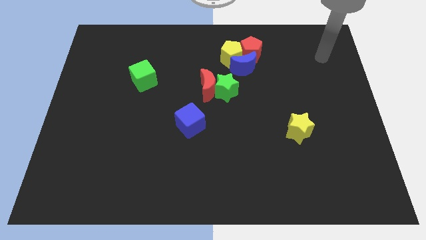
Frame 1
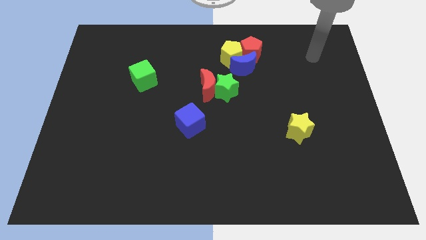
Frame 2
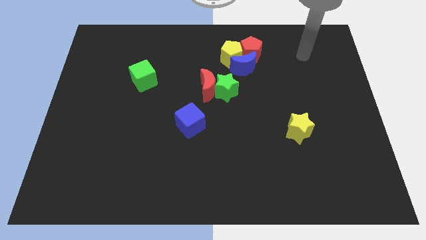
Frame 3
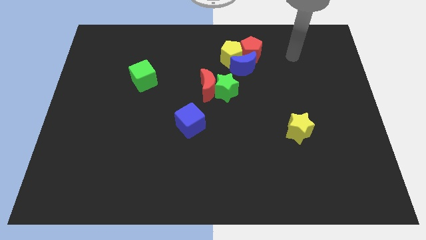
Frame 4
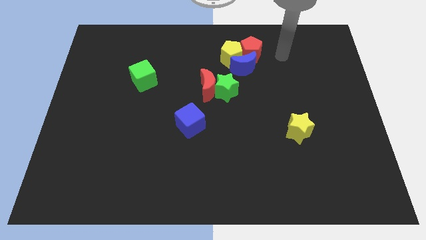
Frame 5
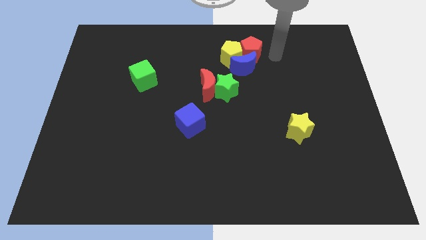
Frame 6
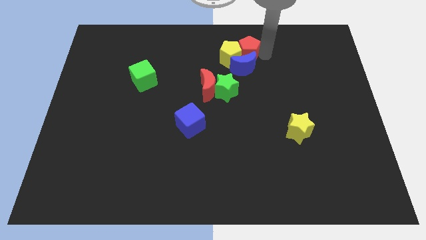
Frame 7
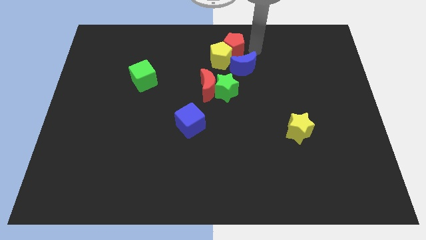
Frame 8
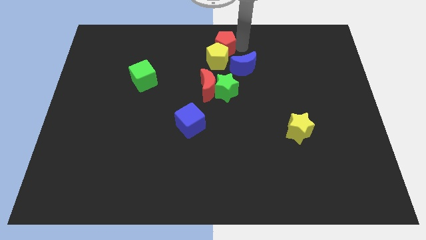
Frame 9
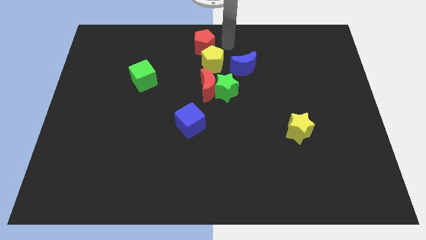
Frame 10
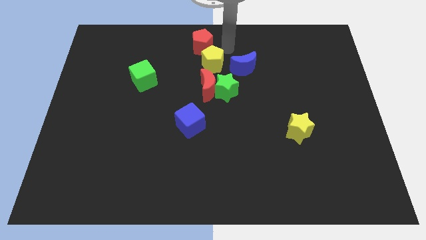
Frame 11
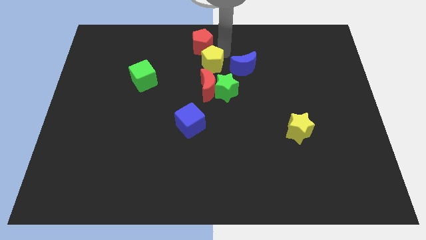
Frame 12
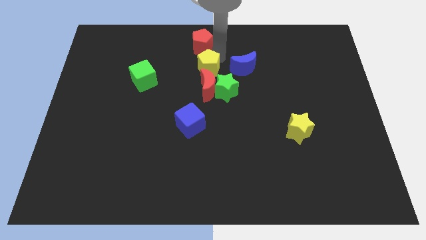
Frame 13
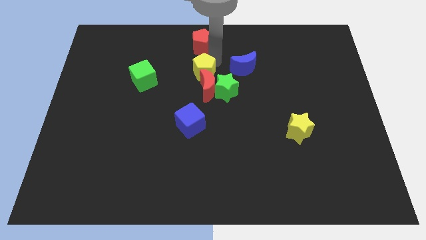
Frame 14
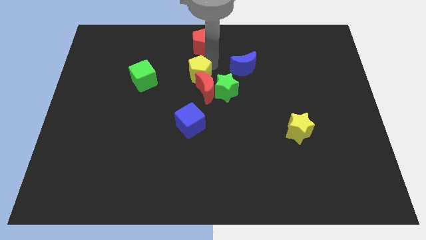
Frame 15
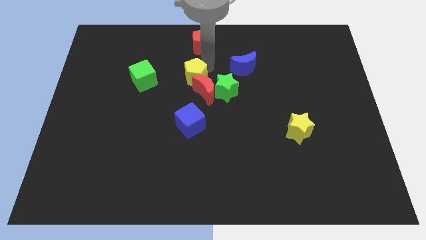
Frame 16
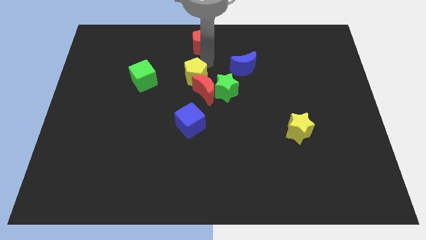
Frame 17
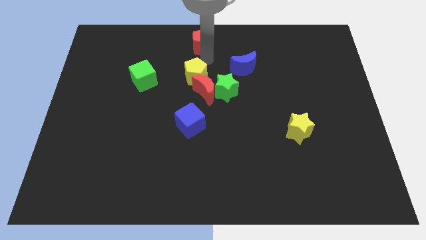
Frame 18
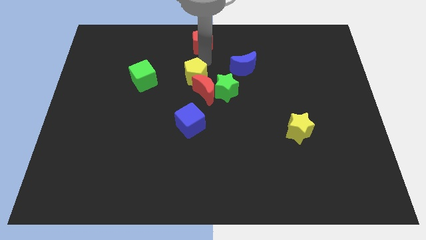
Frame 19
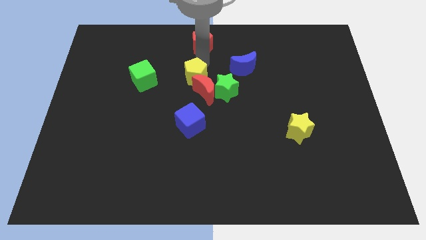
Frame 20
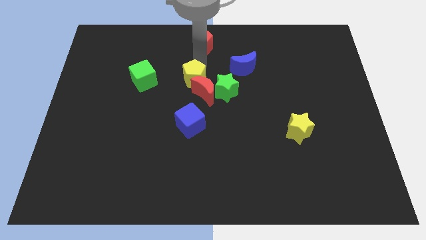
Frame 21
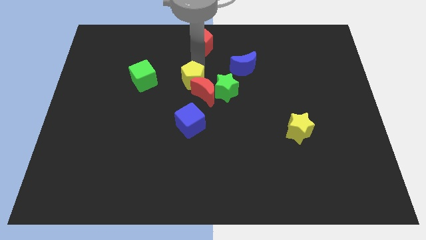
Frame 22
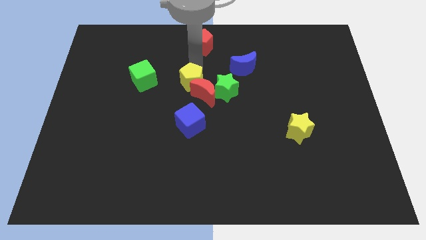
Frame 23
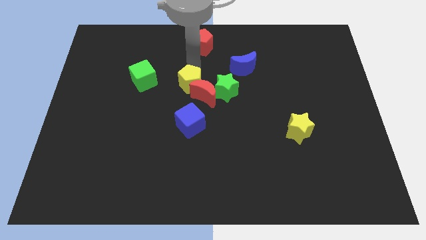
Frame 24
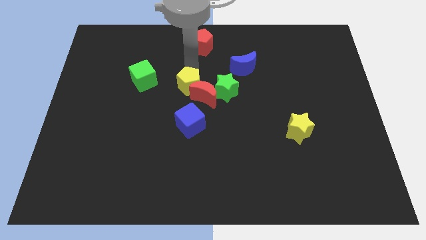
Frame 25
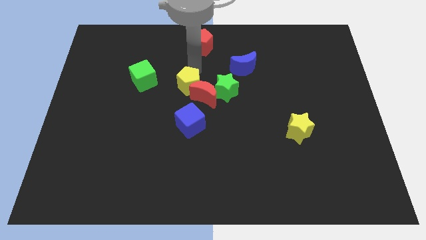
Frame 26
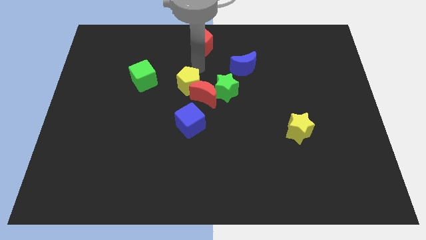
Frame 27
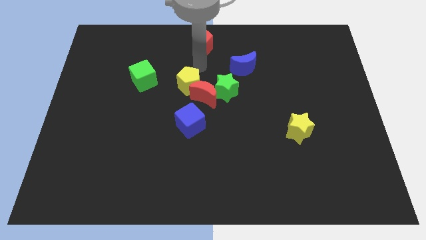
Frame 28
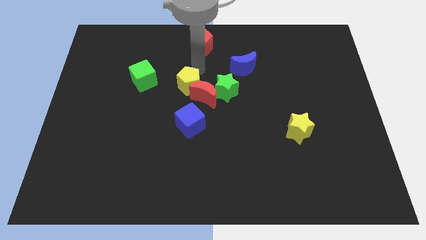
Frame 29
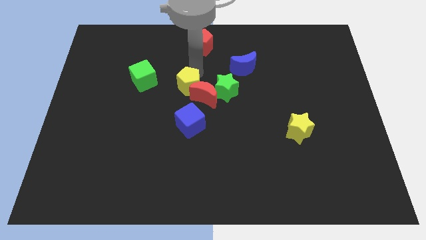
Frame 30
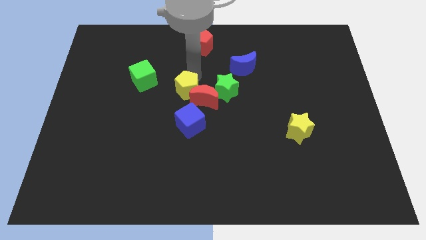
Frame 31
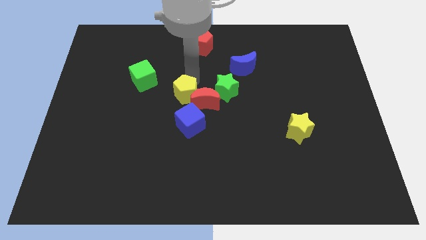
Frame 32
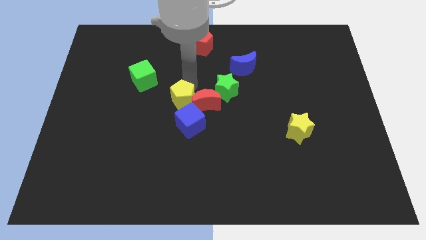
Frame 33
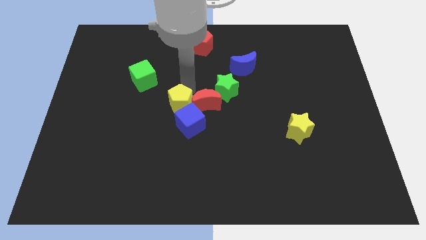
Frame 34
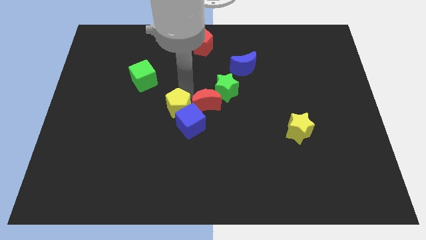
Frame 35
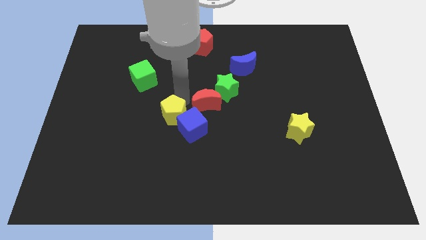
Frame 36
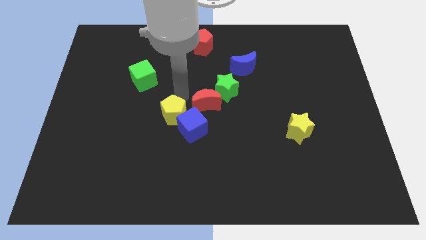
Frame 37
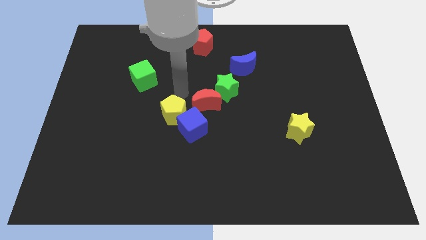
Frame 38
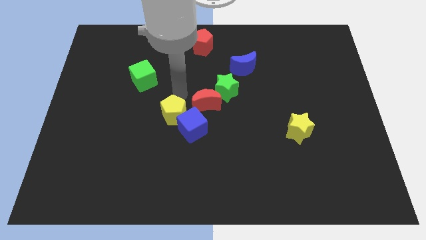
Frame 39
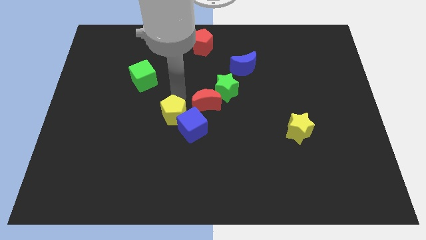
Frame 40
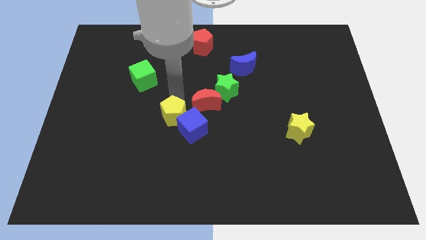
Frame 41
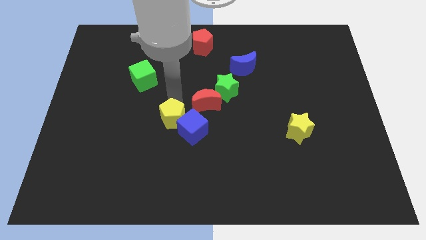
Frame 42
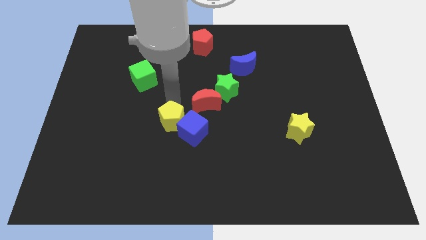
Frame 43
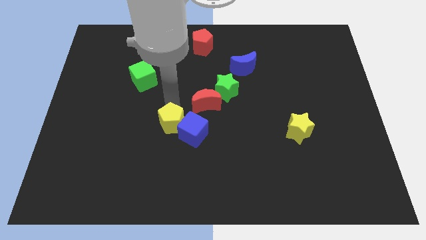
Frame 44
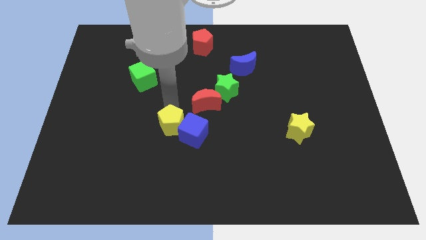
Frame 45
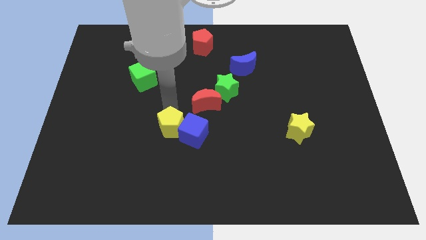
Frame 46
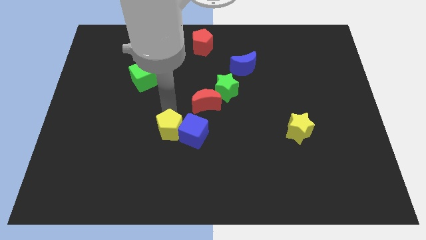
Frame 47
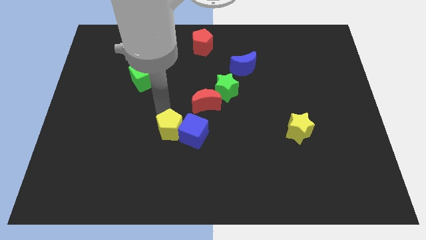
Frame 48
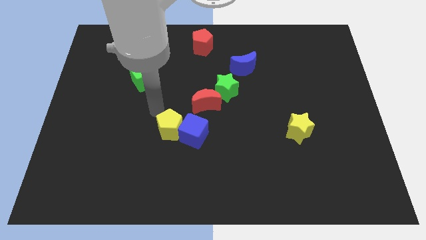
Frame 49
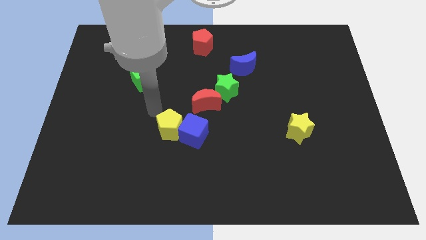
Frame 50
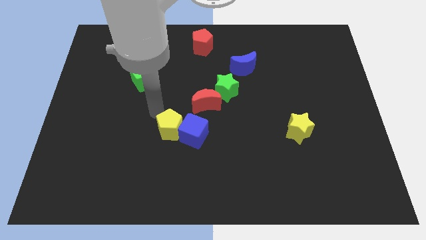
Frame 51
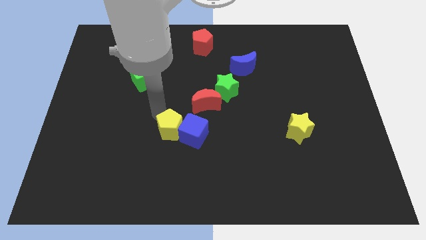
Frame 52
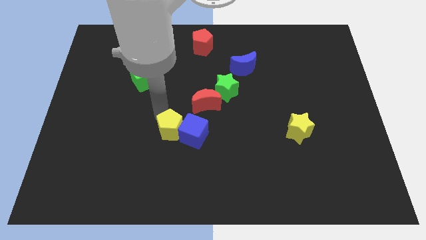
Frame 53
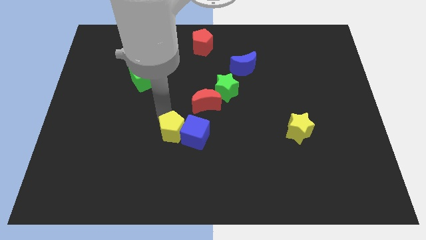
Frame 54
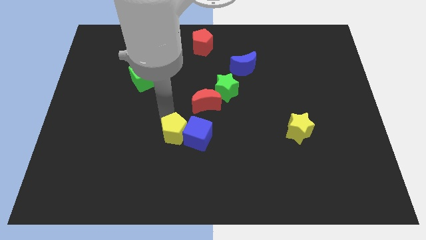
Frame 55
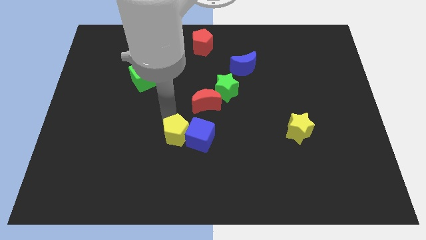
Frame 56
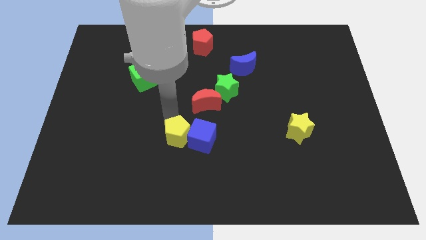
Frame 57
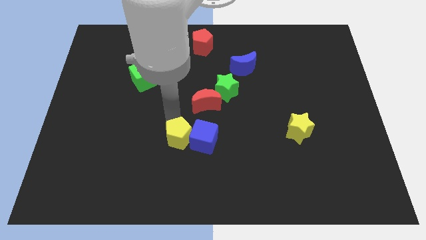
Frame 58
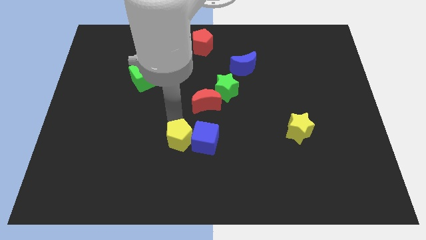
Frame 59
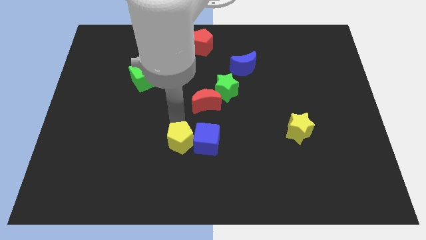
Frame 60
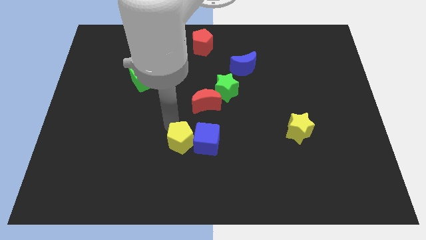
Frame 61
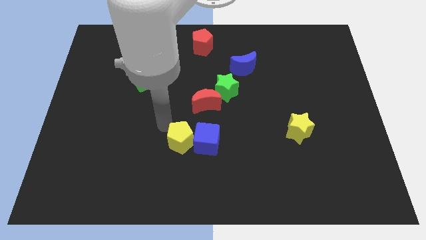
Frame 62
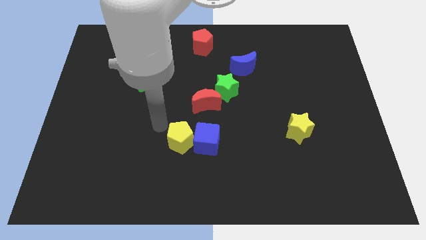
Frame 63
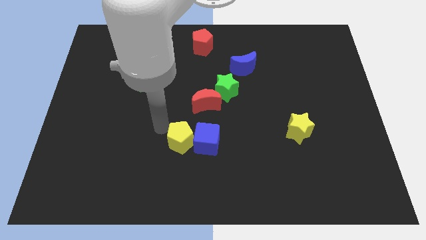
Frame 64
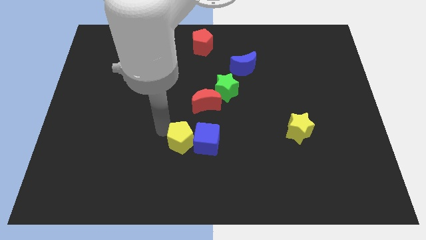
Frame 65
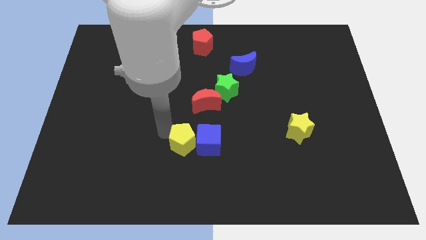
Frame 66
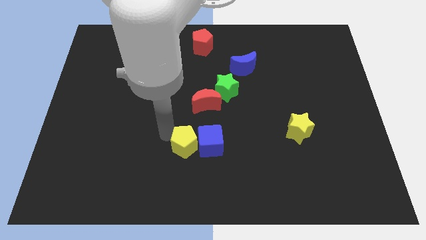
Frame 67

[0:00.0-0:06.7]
move the yellow pentagon downwards

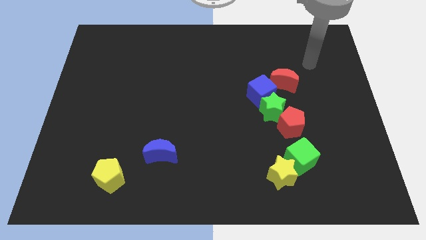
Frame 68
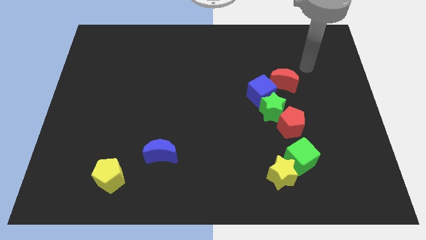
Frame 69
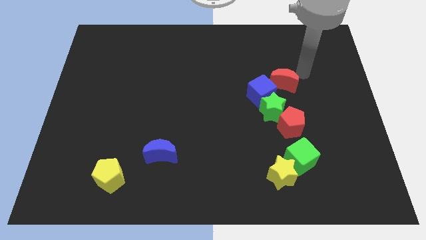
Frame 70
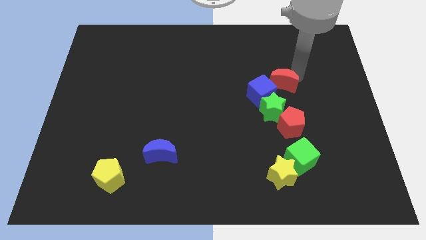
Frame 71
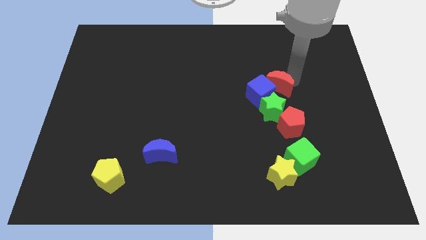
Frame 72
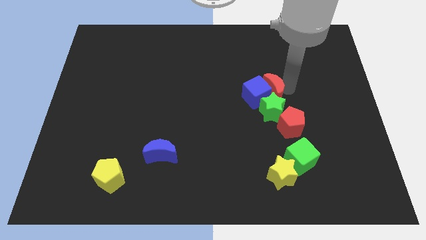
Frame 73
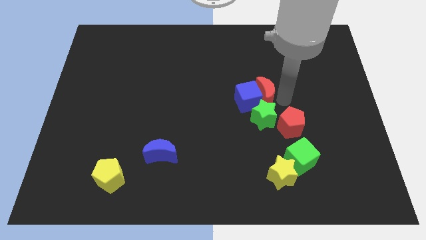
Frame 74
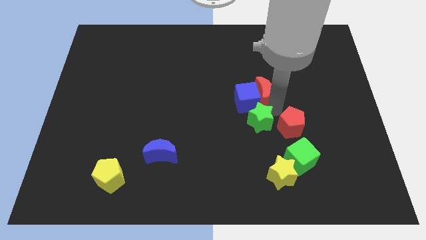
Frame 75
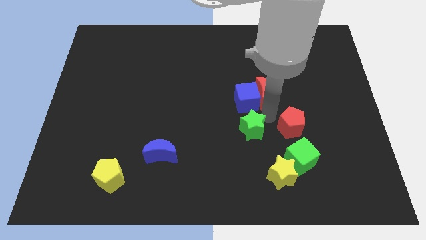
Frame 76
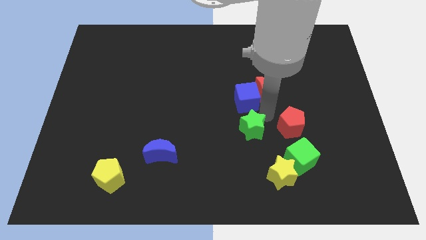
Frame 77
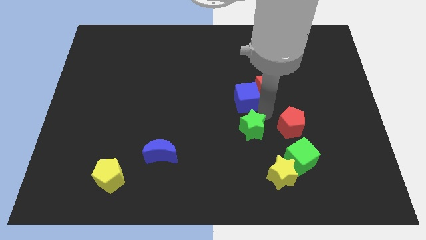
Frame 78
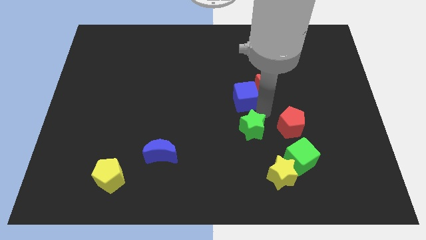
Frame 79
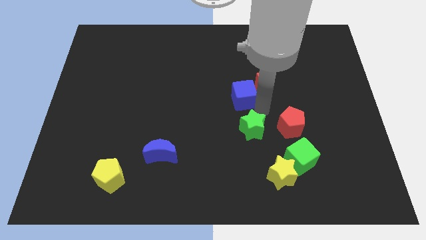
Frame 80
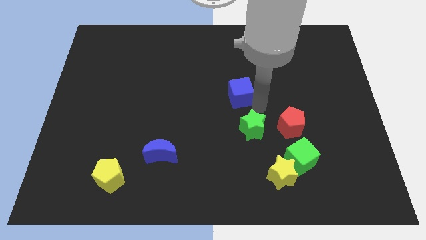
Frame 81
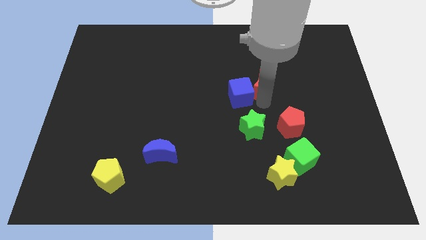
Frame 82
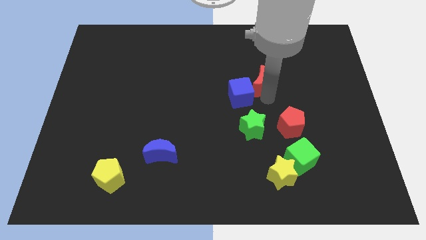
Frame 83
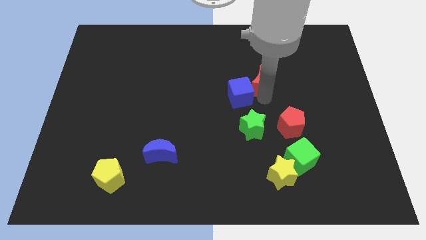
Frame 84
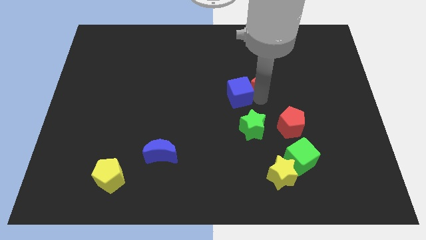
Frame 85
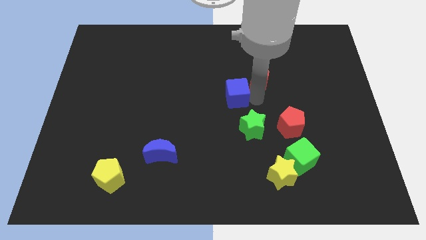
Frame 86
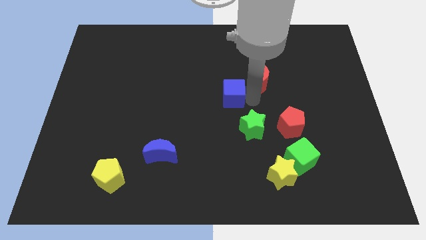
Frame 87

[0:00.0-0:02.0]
push the blue cube to the left slightly
